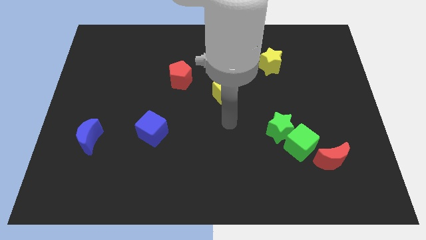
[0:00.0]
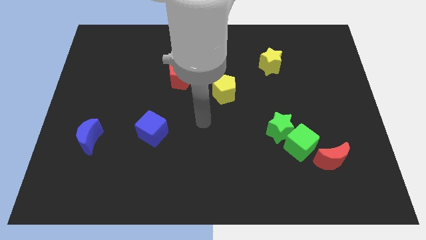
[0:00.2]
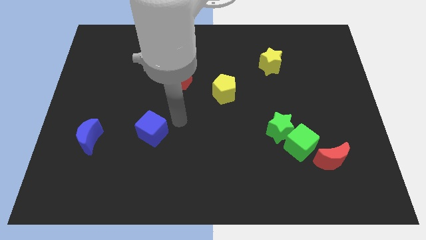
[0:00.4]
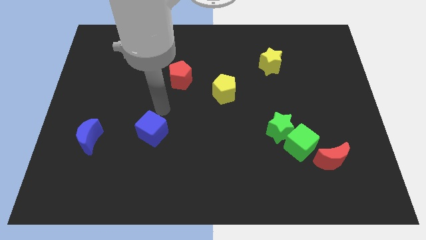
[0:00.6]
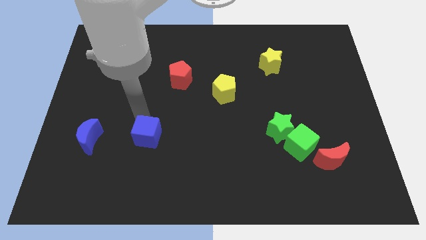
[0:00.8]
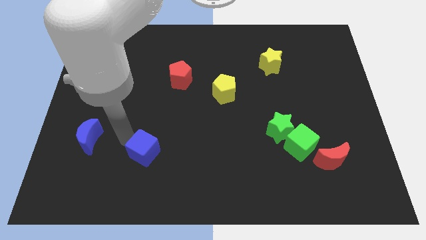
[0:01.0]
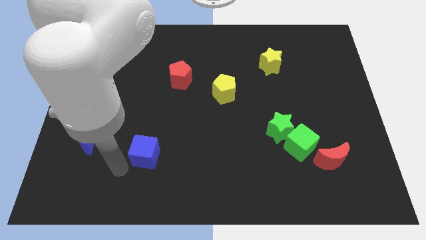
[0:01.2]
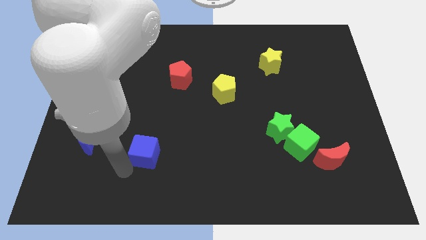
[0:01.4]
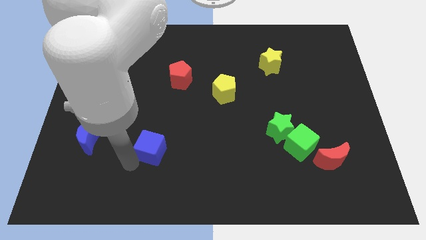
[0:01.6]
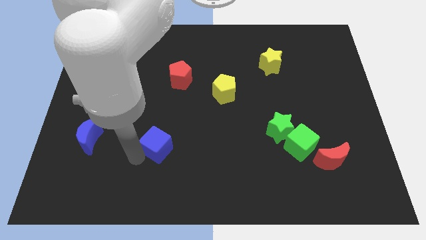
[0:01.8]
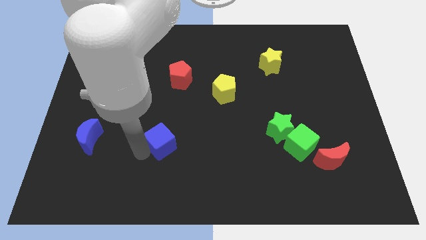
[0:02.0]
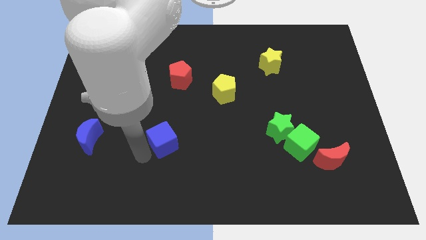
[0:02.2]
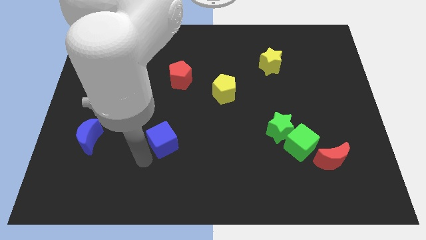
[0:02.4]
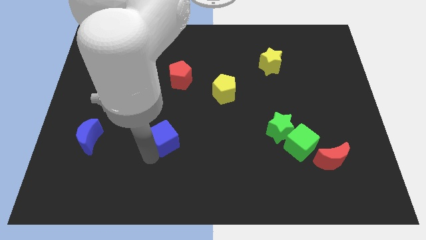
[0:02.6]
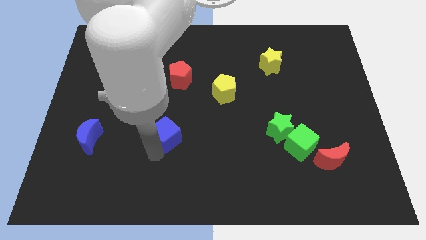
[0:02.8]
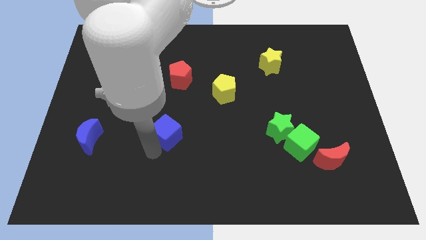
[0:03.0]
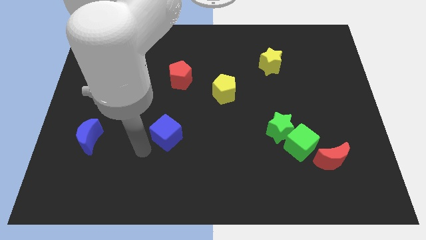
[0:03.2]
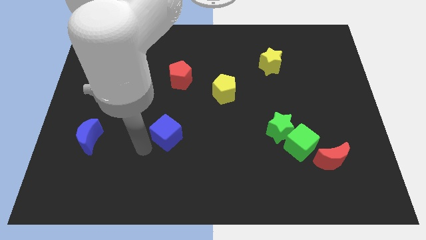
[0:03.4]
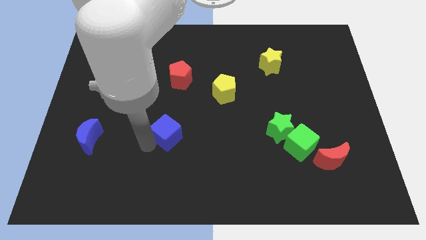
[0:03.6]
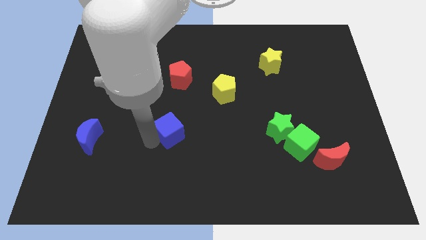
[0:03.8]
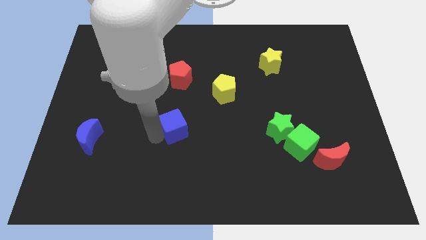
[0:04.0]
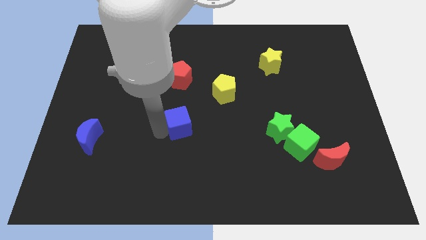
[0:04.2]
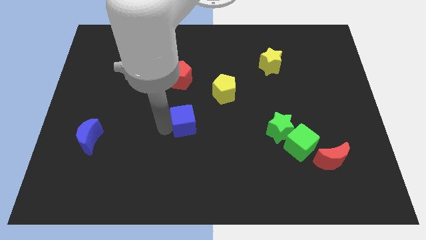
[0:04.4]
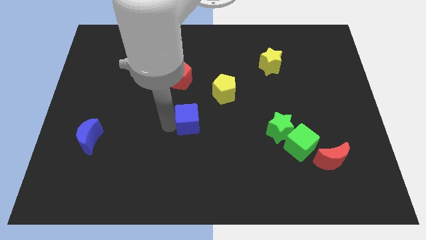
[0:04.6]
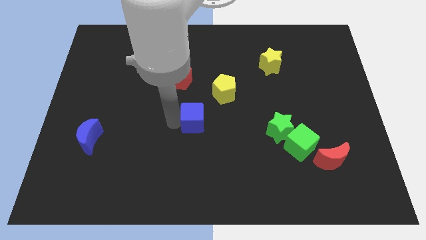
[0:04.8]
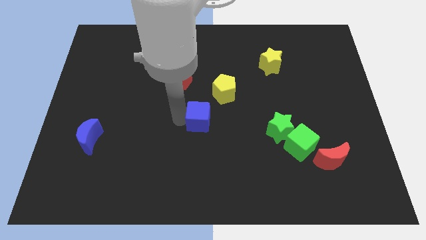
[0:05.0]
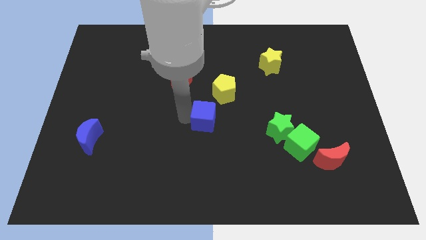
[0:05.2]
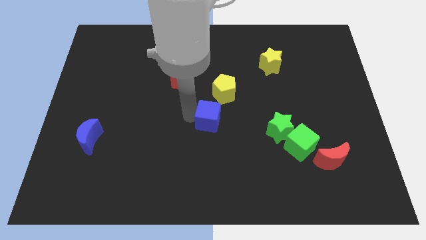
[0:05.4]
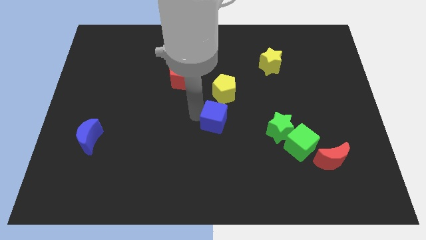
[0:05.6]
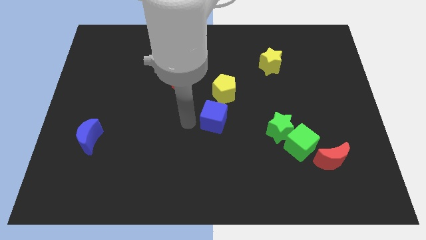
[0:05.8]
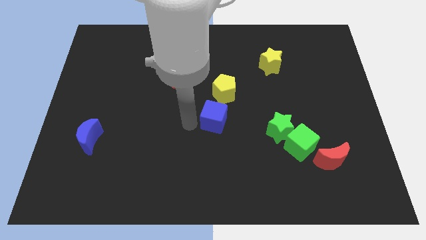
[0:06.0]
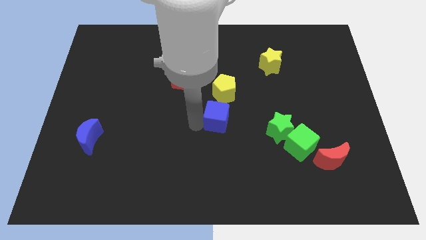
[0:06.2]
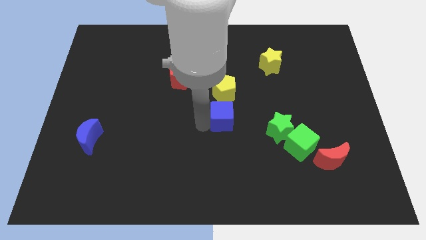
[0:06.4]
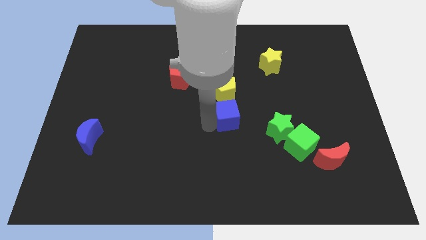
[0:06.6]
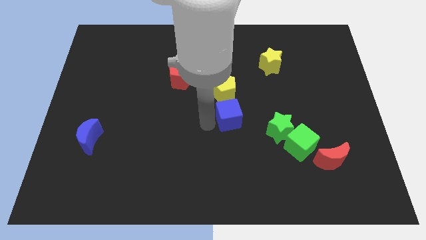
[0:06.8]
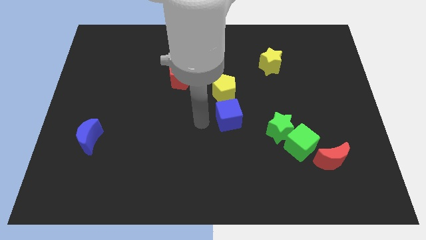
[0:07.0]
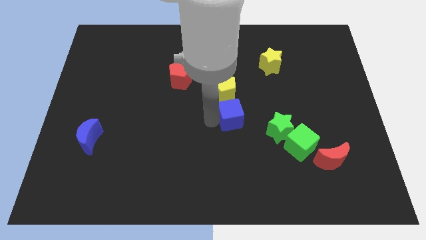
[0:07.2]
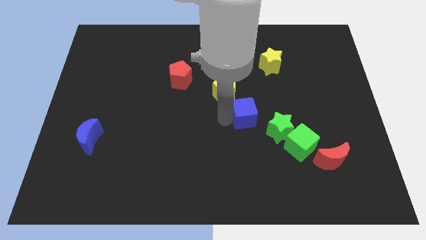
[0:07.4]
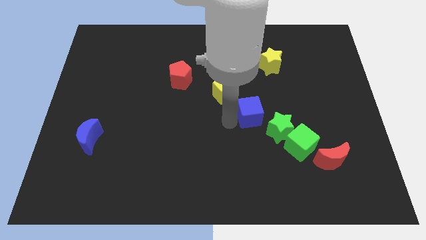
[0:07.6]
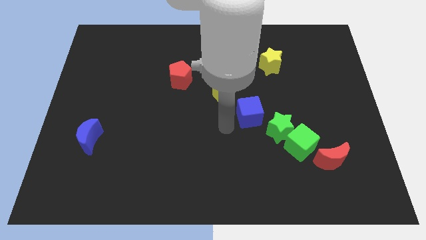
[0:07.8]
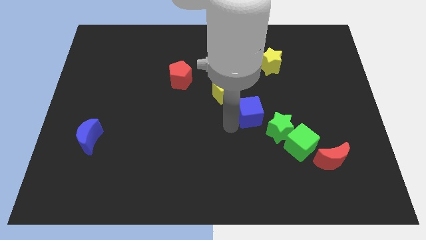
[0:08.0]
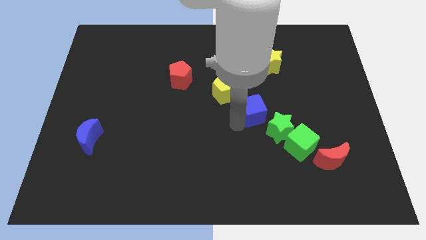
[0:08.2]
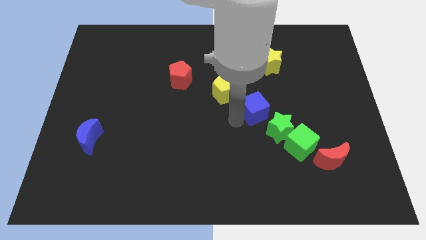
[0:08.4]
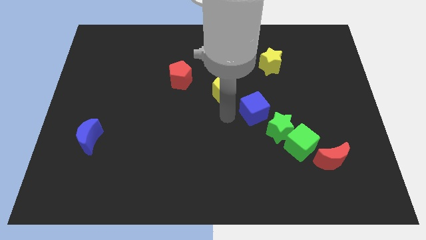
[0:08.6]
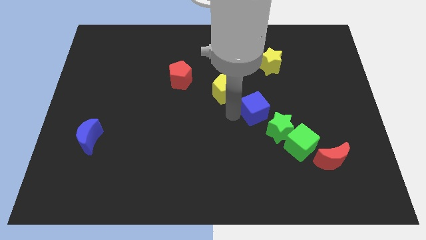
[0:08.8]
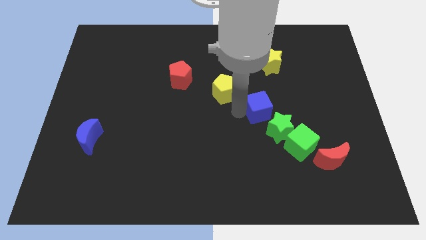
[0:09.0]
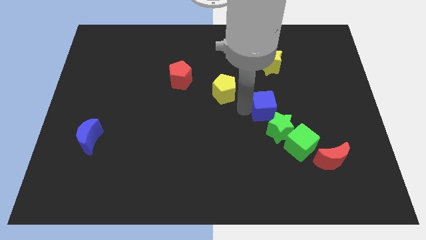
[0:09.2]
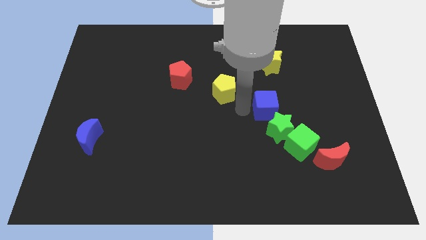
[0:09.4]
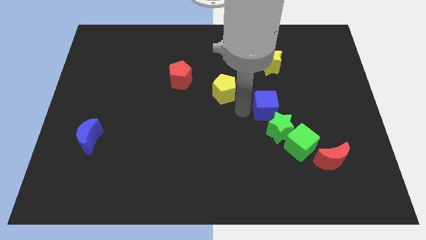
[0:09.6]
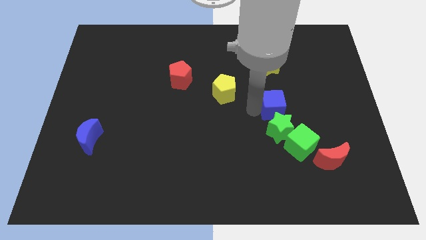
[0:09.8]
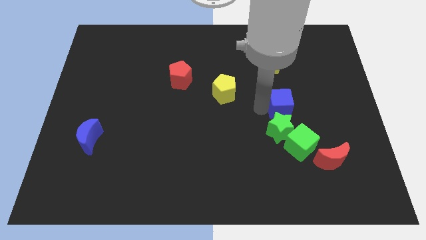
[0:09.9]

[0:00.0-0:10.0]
push the blue cube diagonally up and to the right of the green star

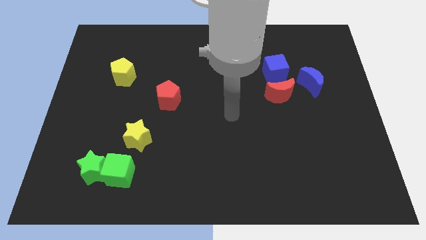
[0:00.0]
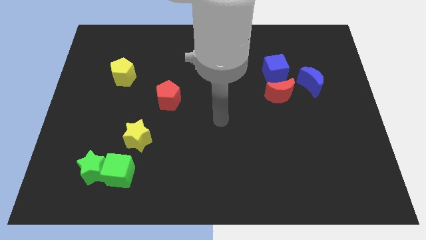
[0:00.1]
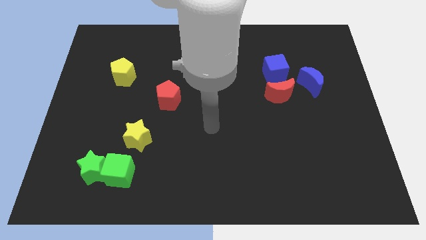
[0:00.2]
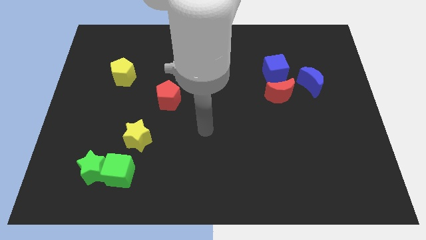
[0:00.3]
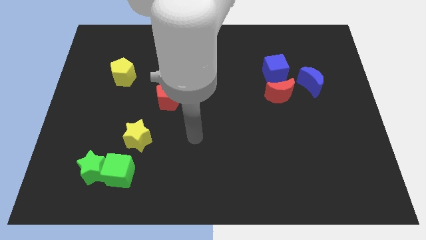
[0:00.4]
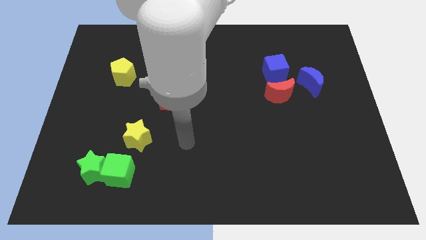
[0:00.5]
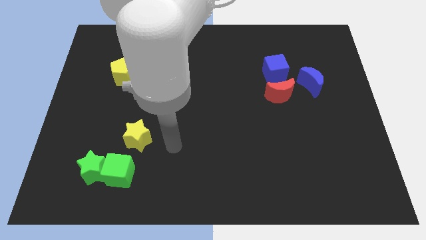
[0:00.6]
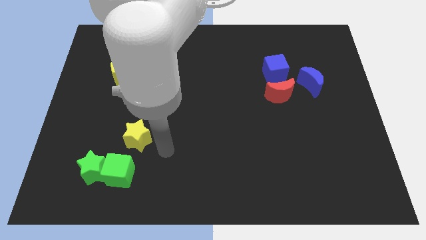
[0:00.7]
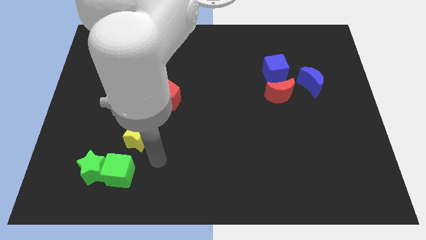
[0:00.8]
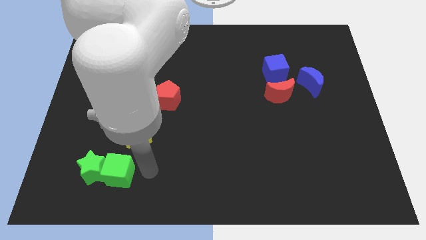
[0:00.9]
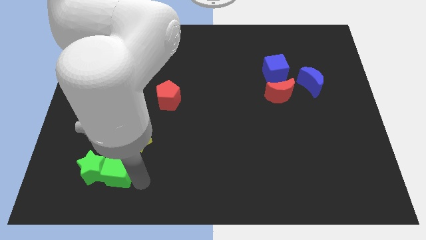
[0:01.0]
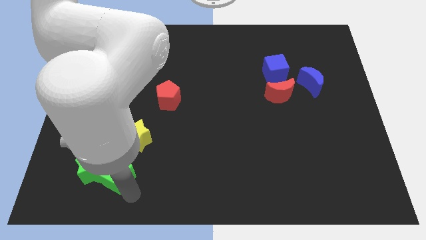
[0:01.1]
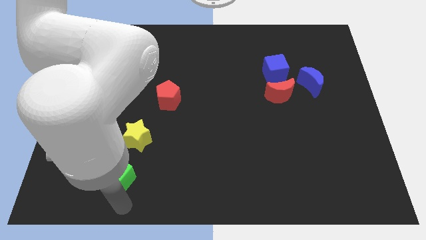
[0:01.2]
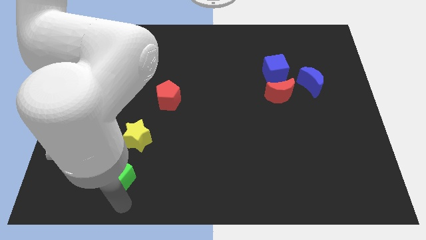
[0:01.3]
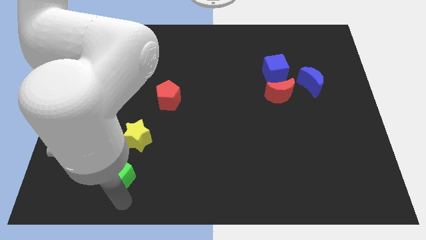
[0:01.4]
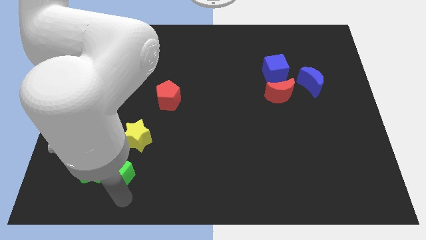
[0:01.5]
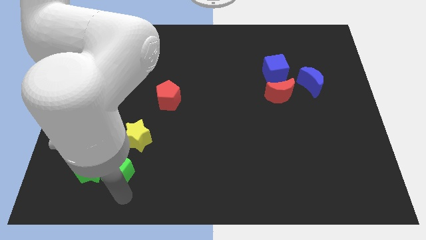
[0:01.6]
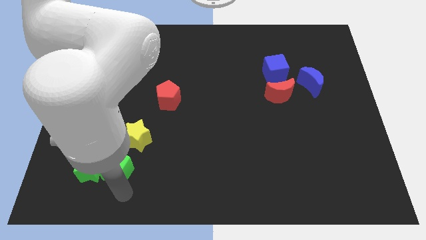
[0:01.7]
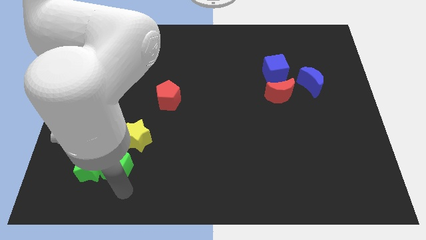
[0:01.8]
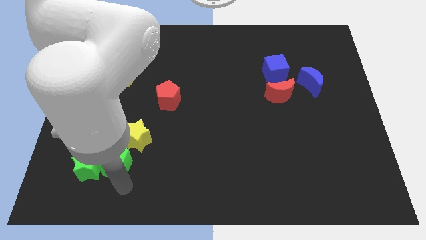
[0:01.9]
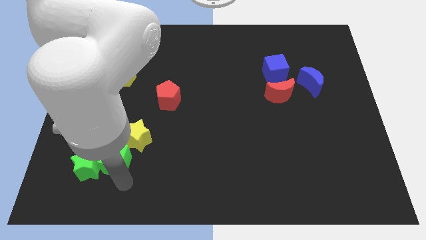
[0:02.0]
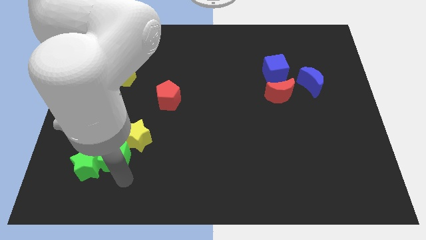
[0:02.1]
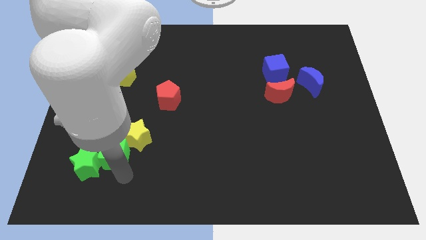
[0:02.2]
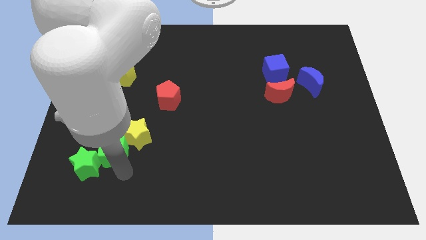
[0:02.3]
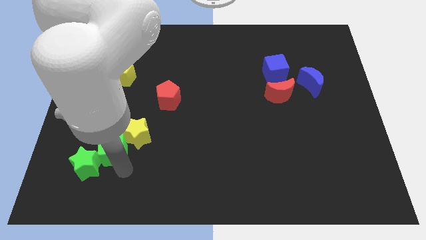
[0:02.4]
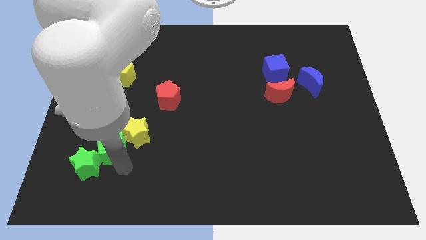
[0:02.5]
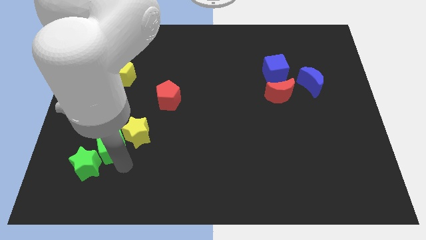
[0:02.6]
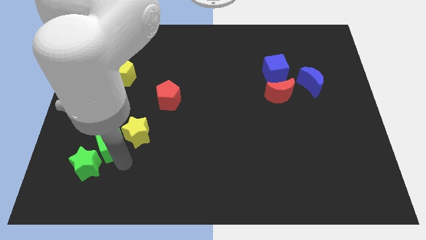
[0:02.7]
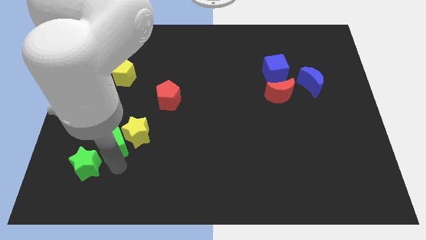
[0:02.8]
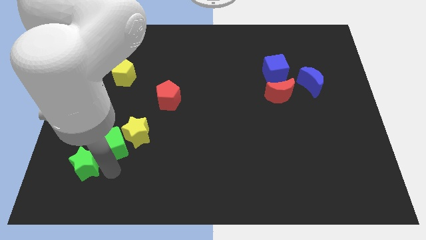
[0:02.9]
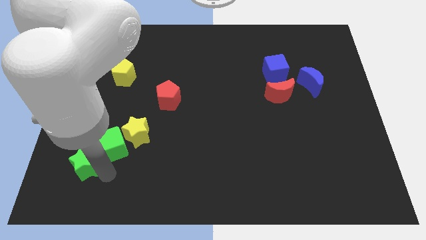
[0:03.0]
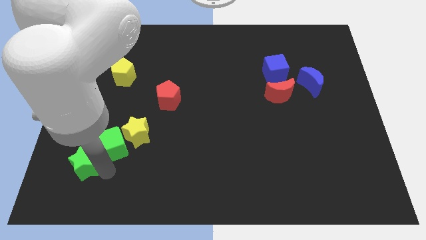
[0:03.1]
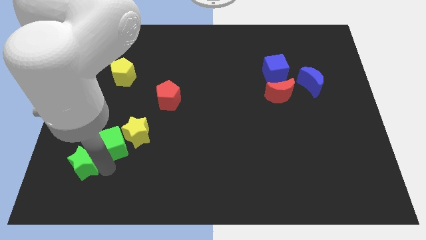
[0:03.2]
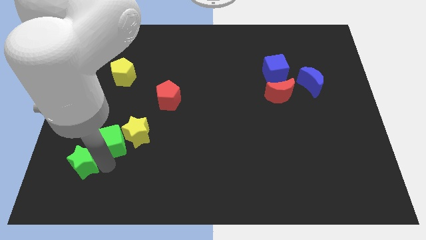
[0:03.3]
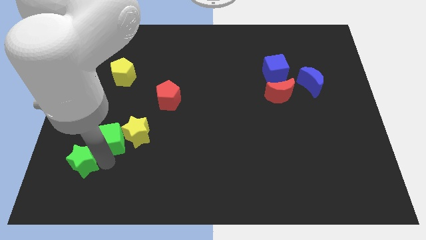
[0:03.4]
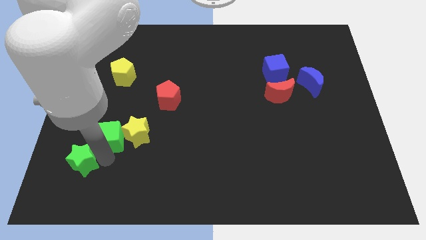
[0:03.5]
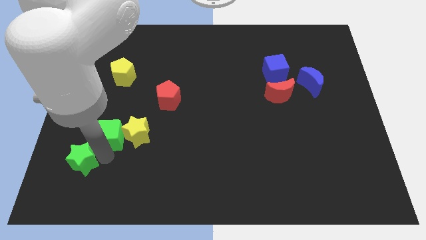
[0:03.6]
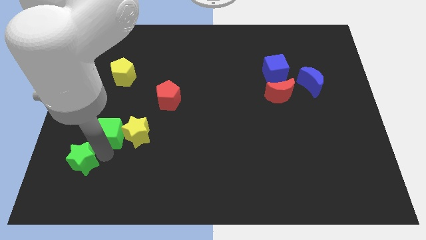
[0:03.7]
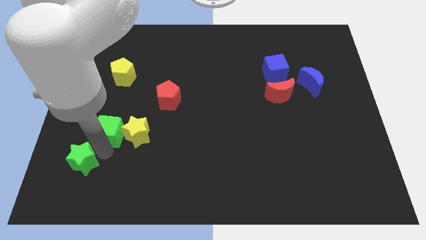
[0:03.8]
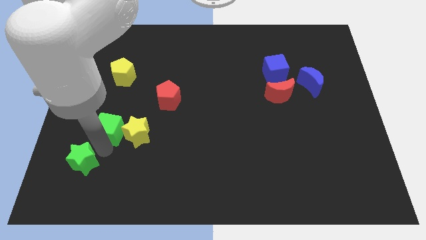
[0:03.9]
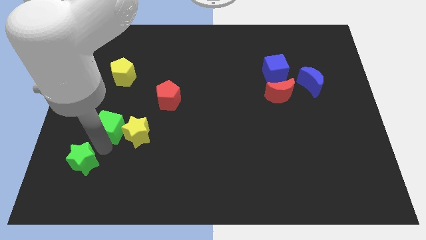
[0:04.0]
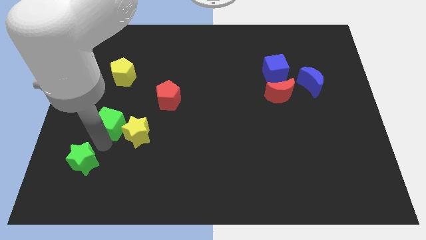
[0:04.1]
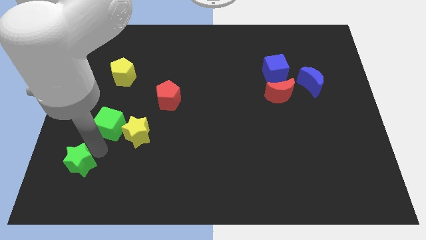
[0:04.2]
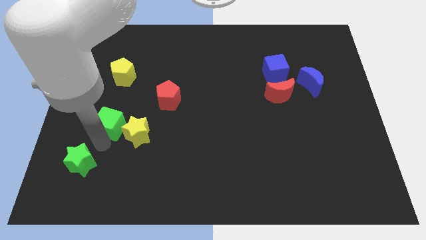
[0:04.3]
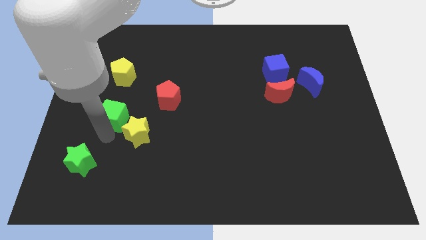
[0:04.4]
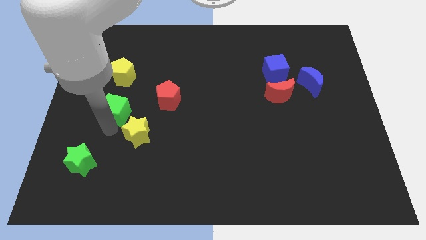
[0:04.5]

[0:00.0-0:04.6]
move the green cube to the left of the red pentagon
